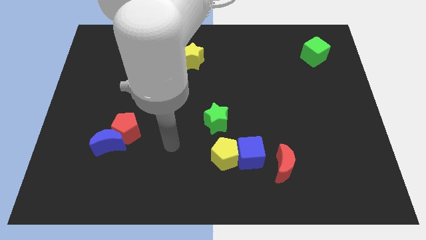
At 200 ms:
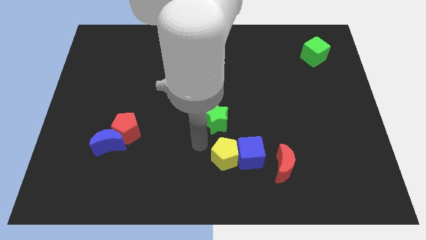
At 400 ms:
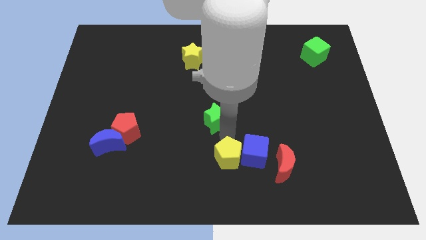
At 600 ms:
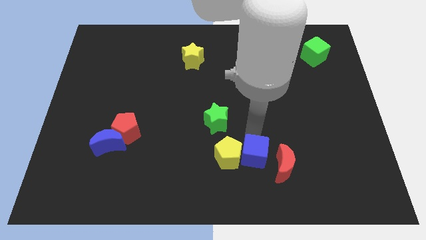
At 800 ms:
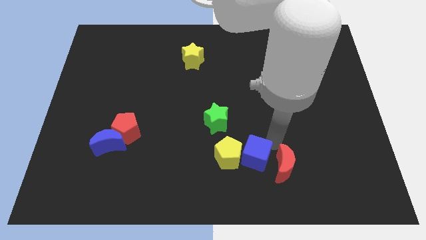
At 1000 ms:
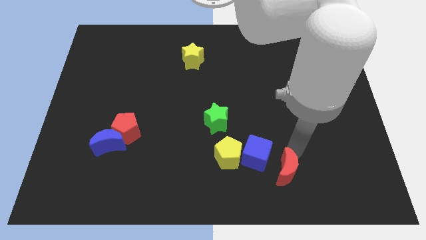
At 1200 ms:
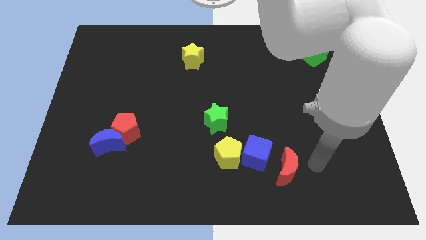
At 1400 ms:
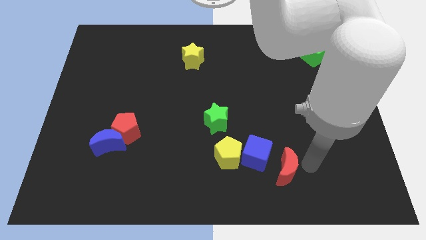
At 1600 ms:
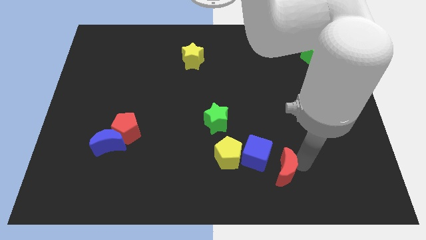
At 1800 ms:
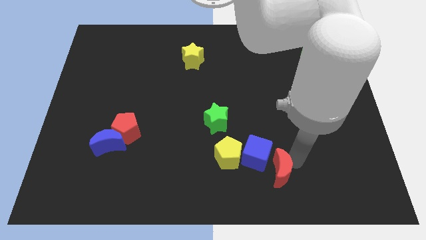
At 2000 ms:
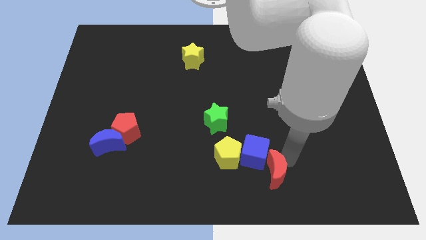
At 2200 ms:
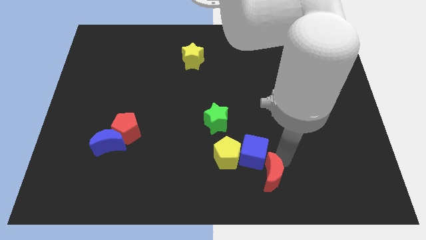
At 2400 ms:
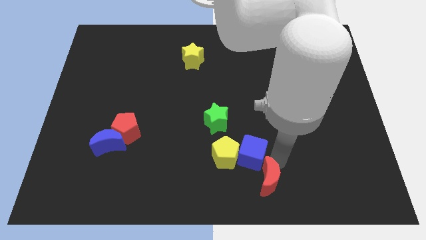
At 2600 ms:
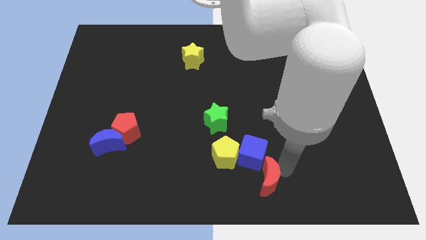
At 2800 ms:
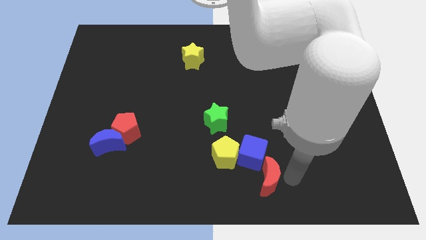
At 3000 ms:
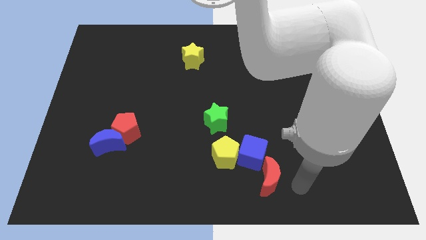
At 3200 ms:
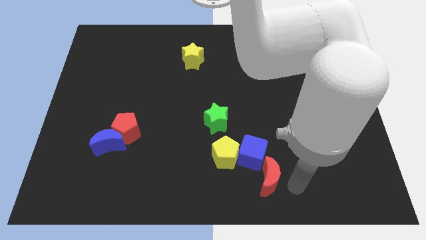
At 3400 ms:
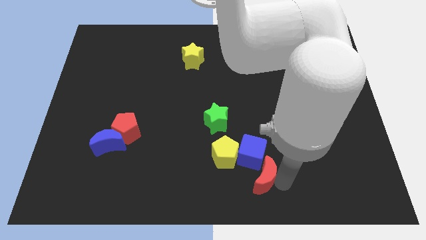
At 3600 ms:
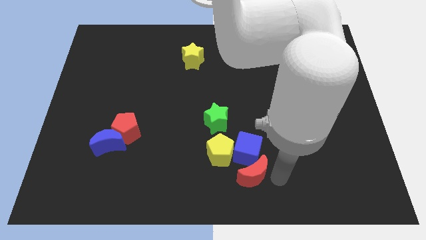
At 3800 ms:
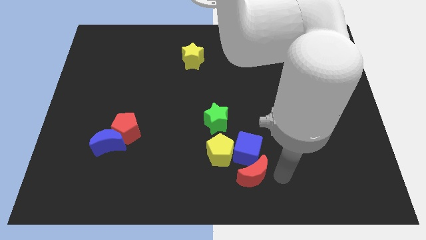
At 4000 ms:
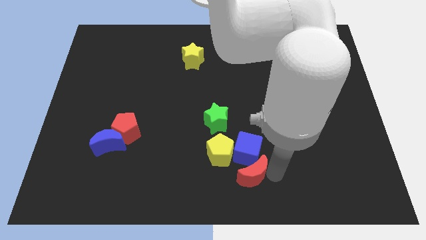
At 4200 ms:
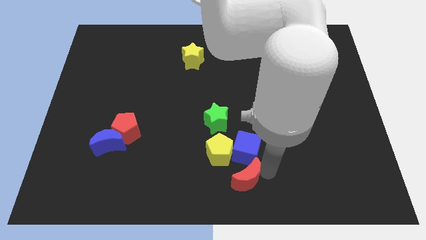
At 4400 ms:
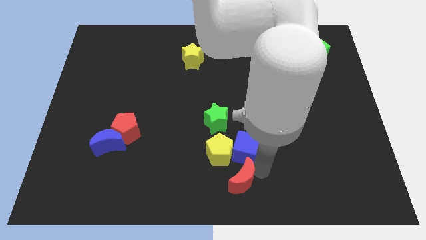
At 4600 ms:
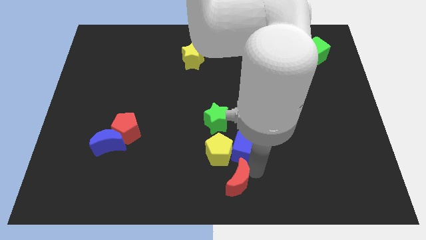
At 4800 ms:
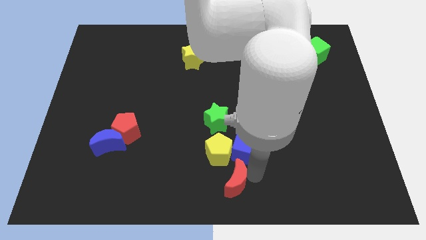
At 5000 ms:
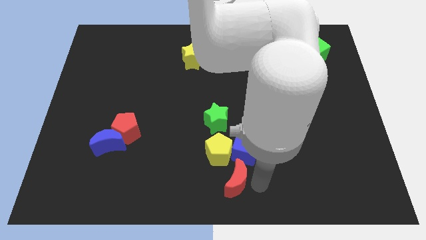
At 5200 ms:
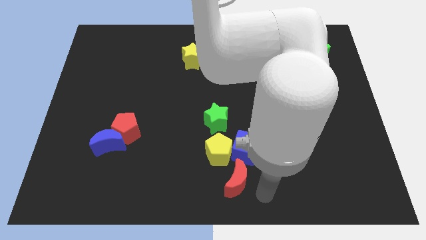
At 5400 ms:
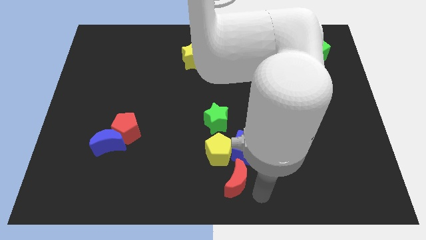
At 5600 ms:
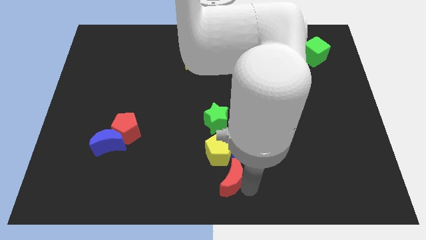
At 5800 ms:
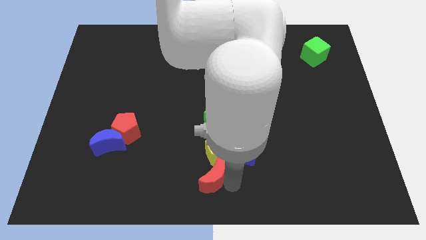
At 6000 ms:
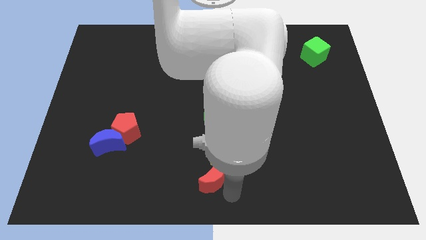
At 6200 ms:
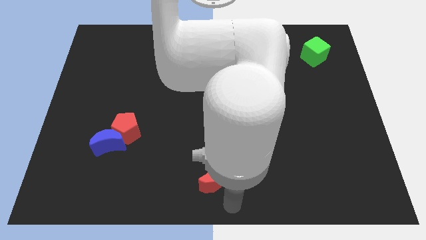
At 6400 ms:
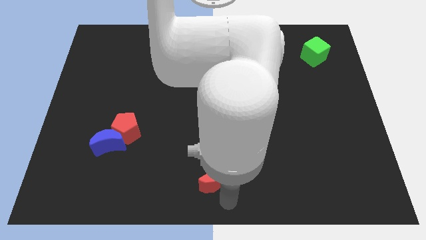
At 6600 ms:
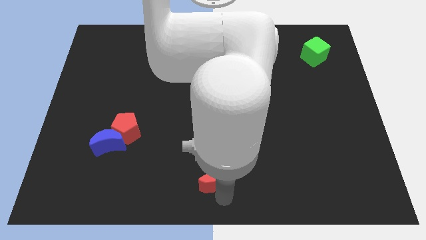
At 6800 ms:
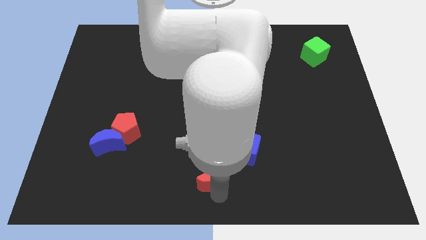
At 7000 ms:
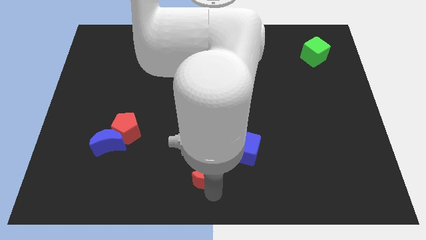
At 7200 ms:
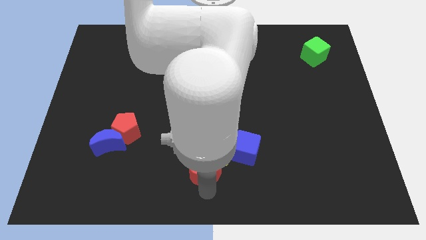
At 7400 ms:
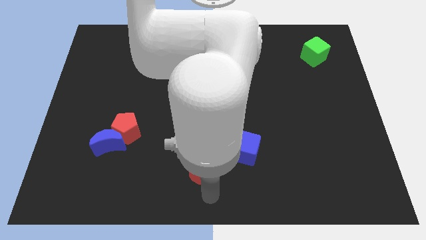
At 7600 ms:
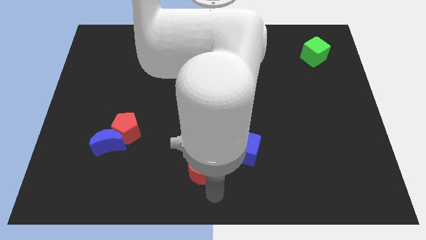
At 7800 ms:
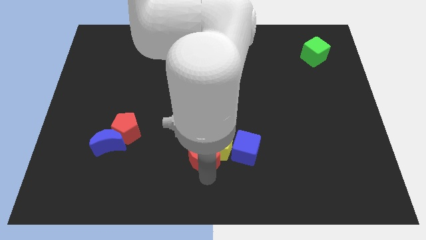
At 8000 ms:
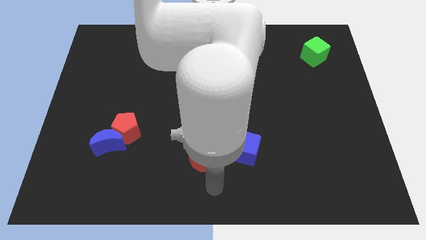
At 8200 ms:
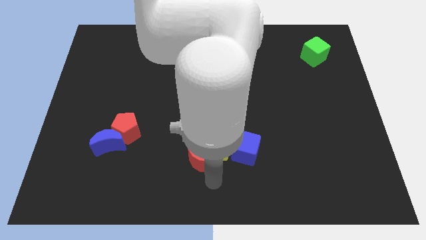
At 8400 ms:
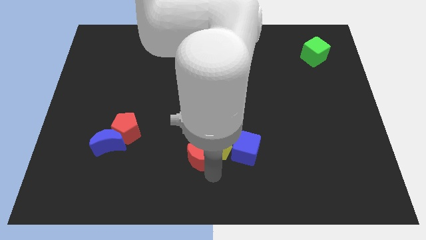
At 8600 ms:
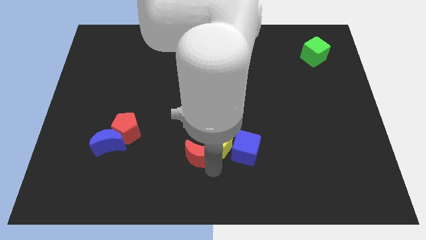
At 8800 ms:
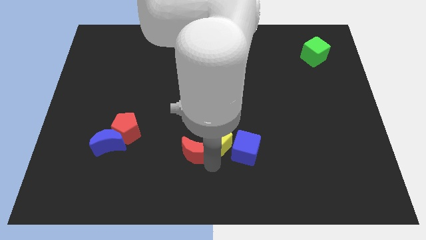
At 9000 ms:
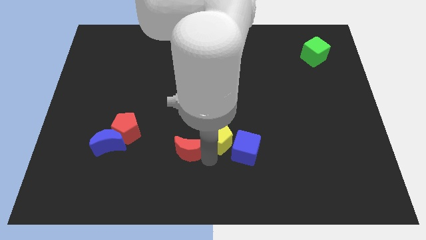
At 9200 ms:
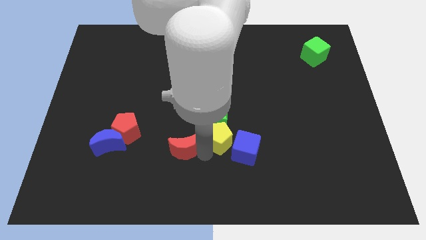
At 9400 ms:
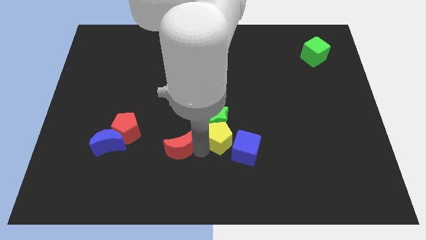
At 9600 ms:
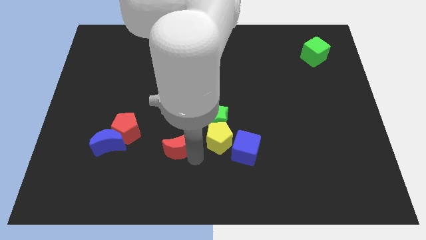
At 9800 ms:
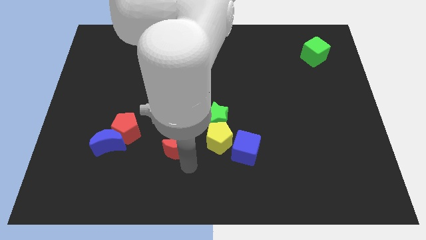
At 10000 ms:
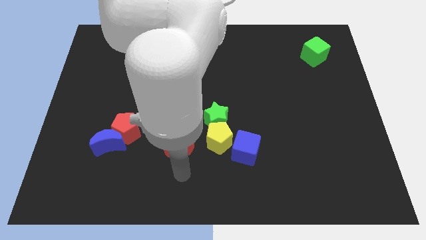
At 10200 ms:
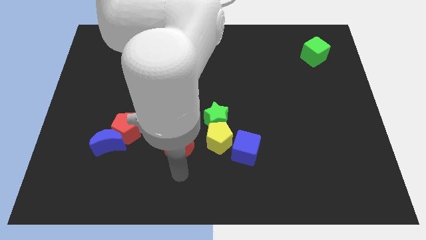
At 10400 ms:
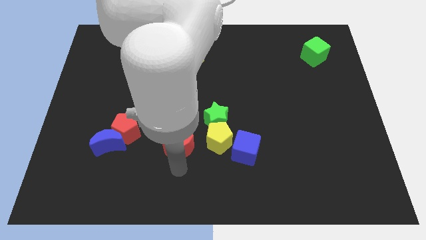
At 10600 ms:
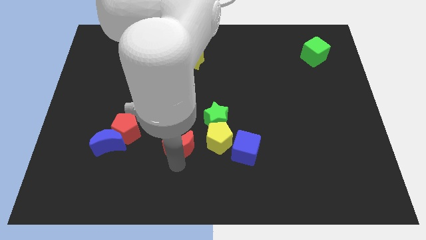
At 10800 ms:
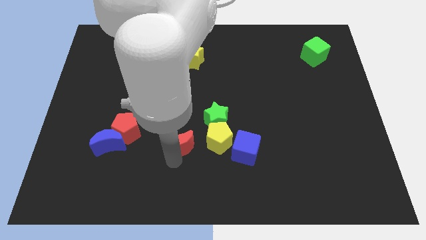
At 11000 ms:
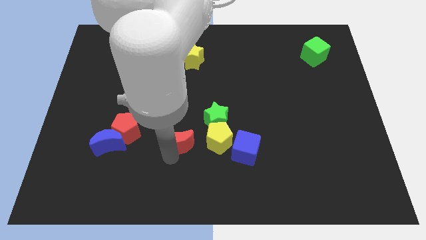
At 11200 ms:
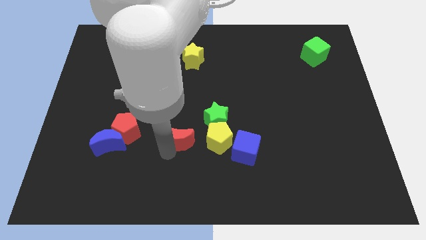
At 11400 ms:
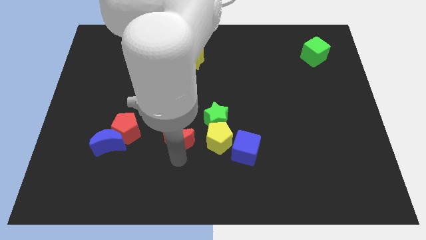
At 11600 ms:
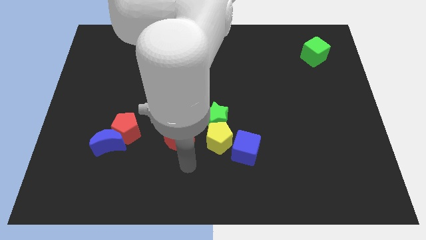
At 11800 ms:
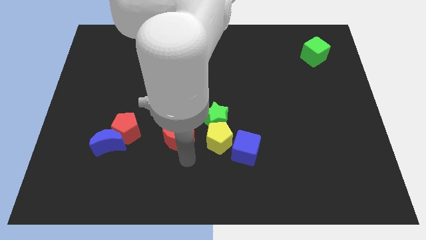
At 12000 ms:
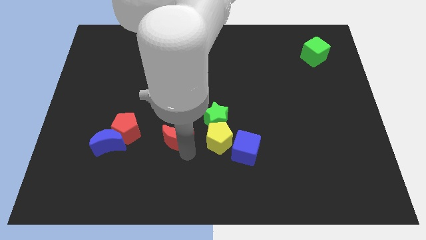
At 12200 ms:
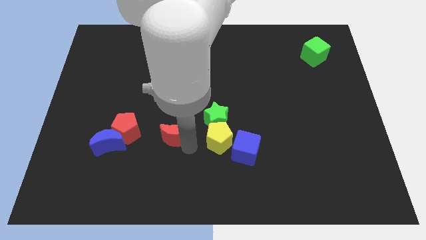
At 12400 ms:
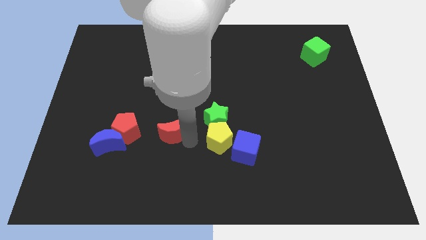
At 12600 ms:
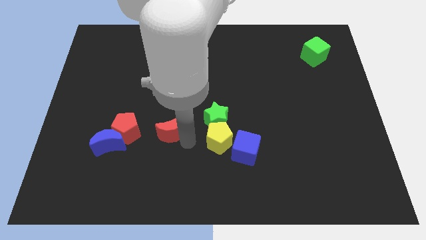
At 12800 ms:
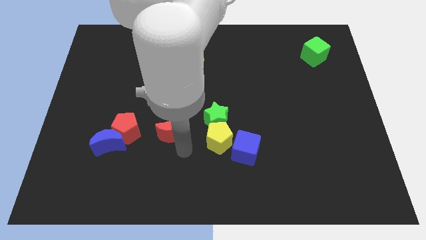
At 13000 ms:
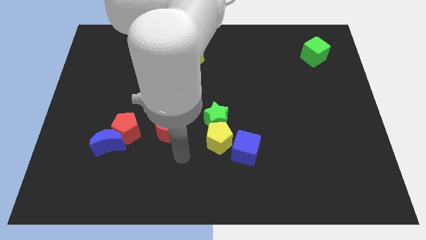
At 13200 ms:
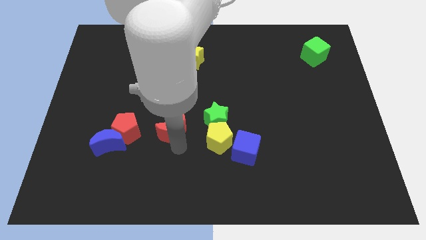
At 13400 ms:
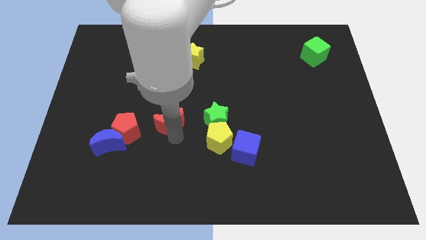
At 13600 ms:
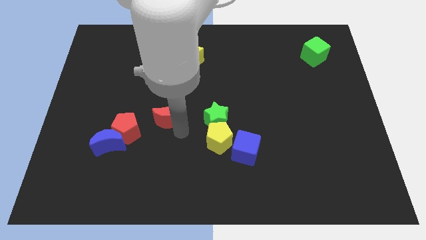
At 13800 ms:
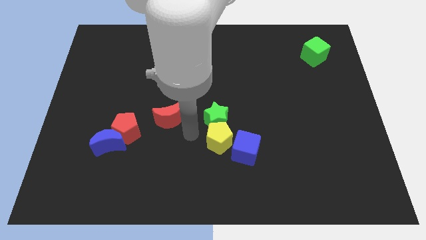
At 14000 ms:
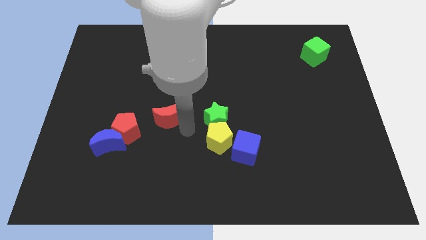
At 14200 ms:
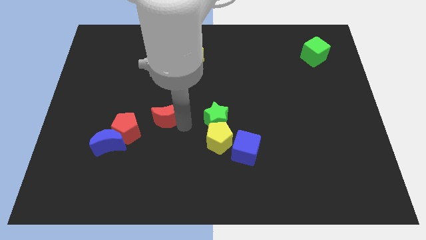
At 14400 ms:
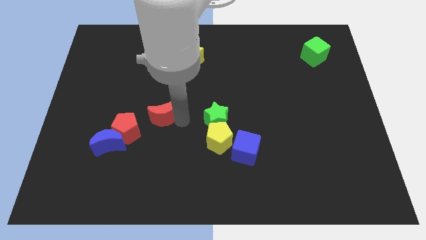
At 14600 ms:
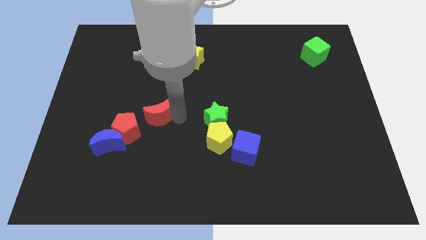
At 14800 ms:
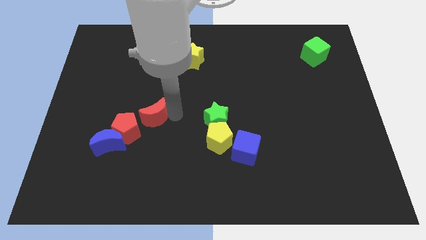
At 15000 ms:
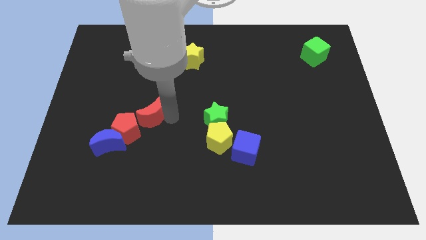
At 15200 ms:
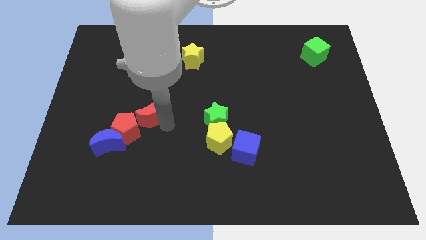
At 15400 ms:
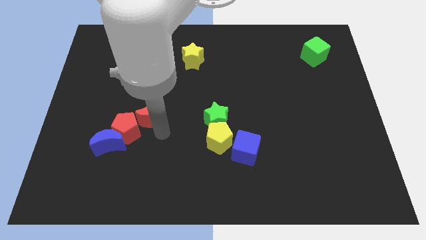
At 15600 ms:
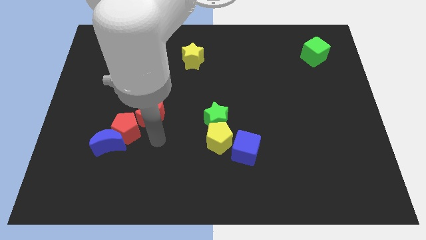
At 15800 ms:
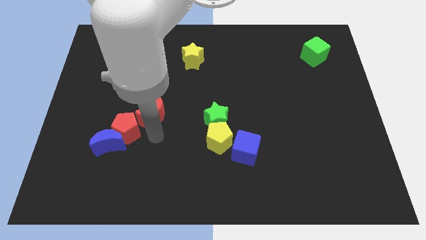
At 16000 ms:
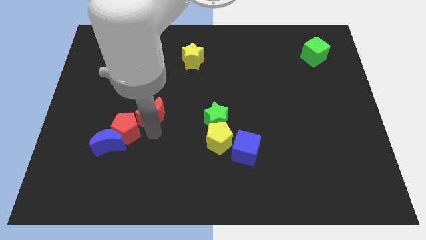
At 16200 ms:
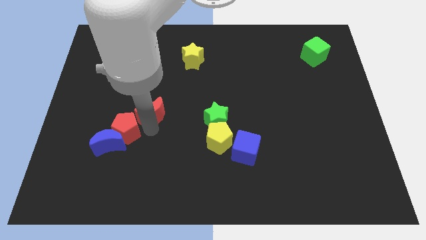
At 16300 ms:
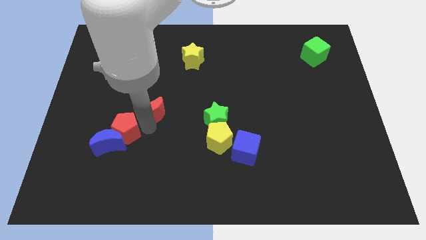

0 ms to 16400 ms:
move the red moon to the top side of the red pentagon
